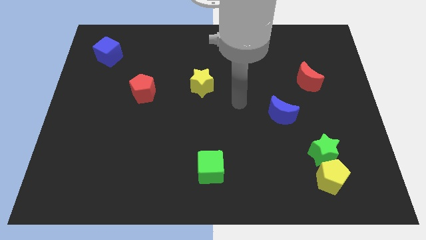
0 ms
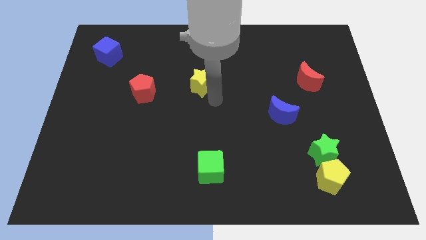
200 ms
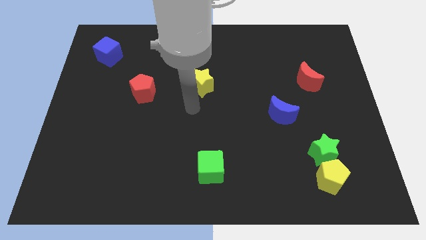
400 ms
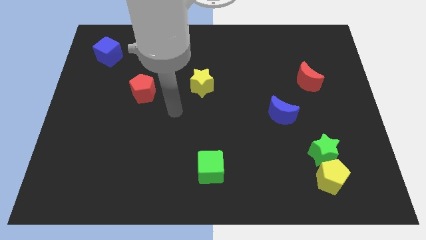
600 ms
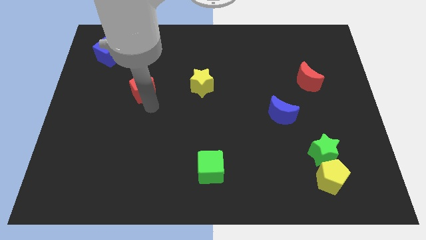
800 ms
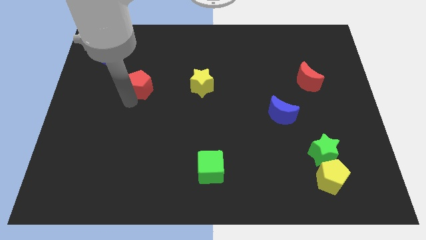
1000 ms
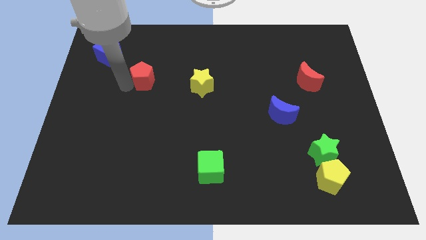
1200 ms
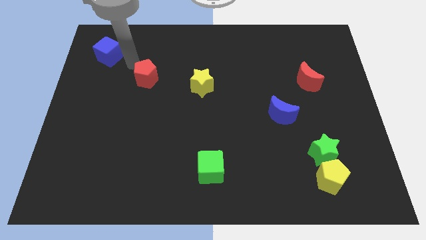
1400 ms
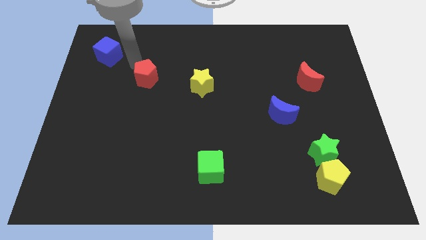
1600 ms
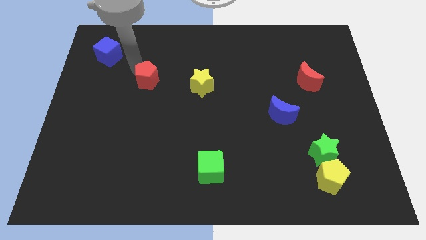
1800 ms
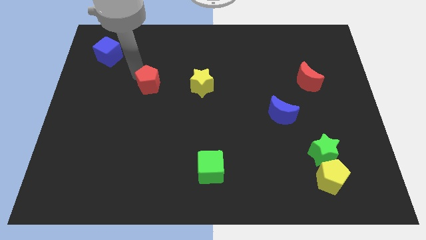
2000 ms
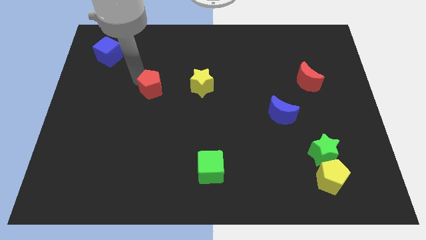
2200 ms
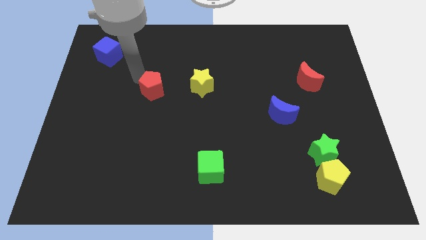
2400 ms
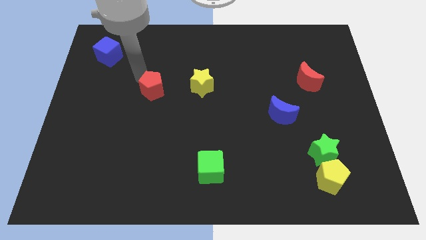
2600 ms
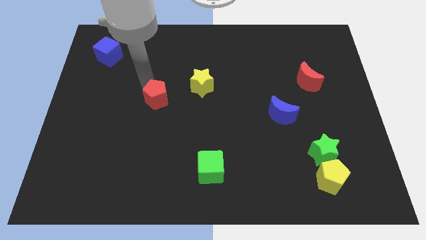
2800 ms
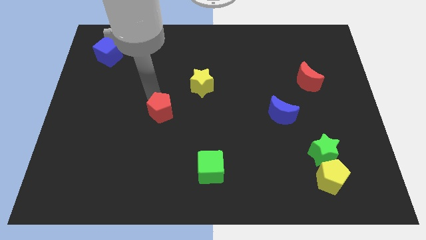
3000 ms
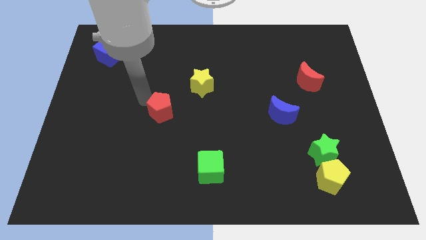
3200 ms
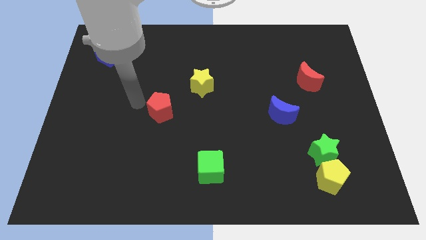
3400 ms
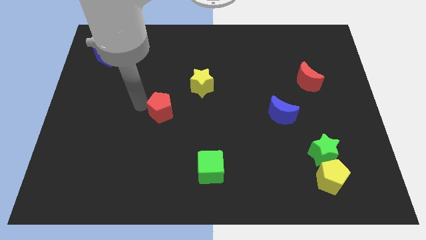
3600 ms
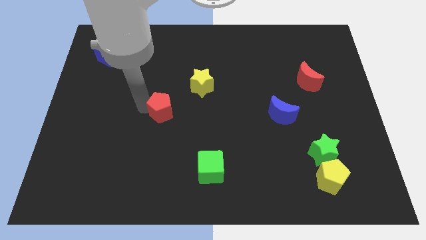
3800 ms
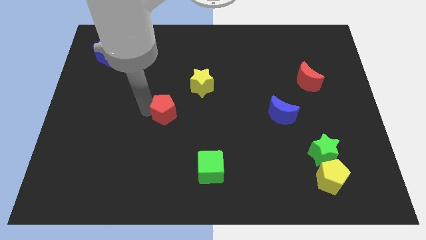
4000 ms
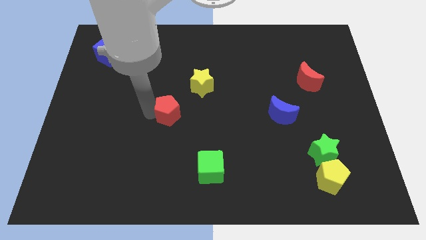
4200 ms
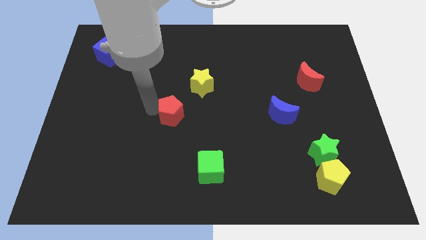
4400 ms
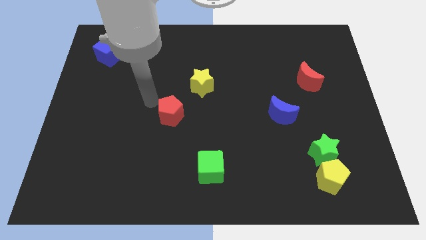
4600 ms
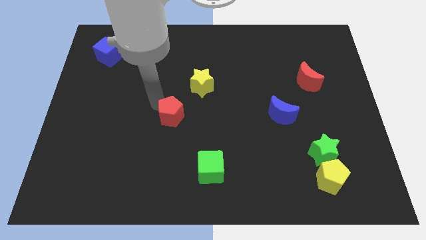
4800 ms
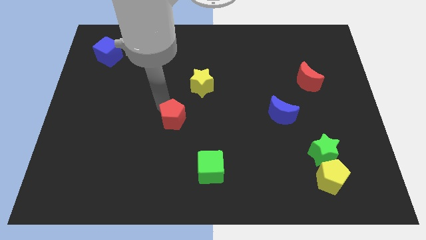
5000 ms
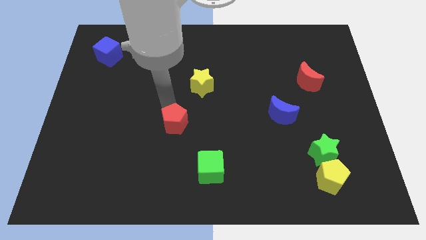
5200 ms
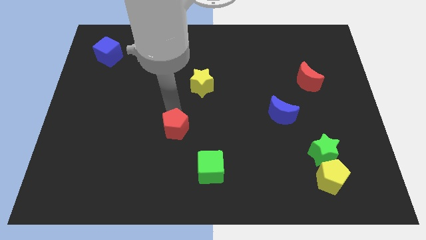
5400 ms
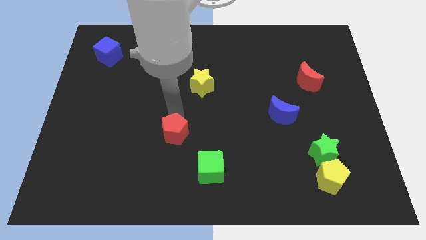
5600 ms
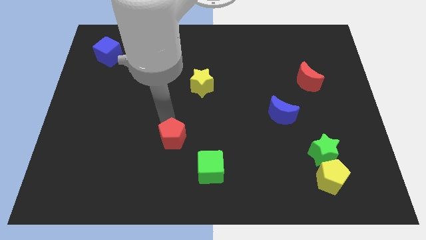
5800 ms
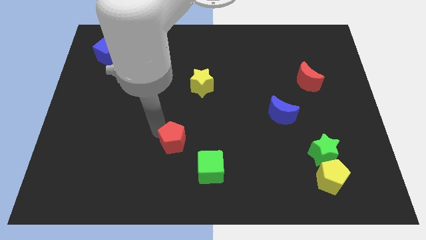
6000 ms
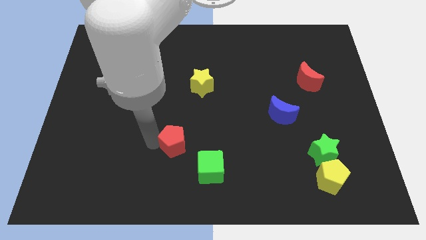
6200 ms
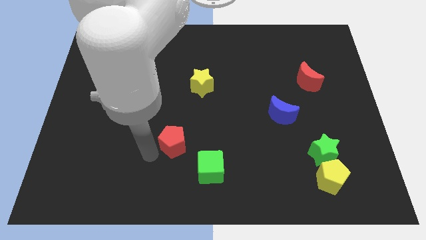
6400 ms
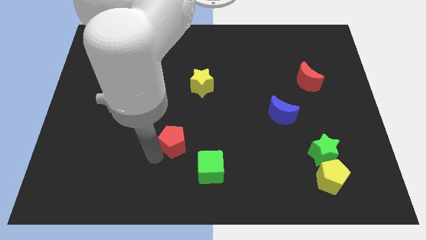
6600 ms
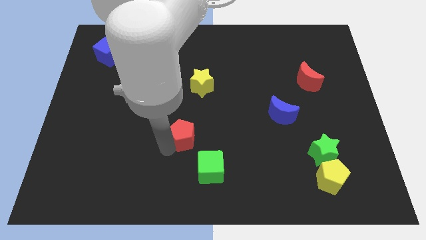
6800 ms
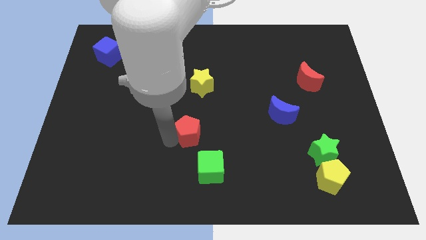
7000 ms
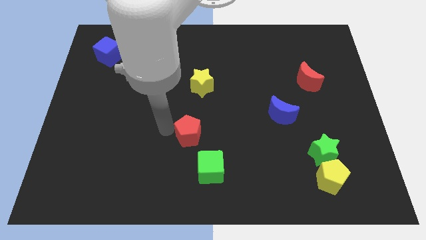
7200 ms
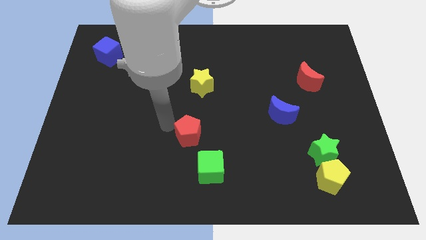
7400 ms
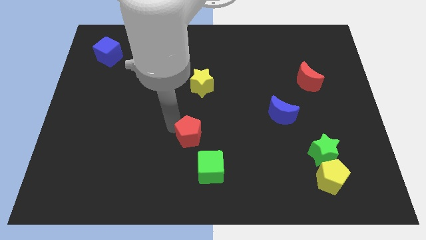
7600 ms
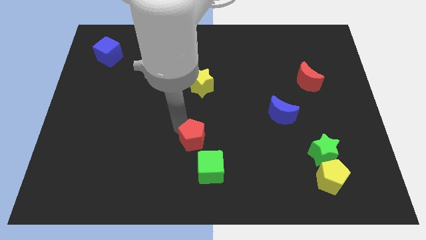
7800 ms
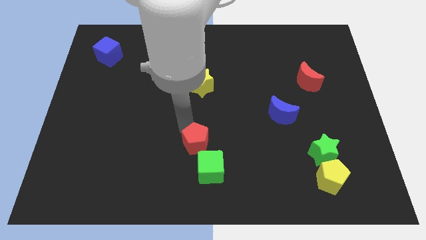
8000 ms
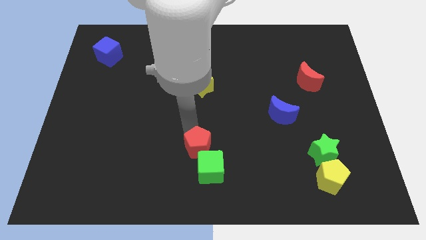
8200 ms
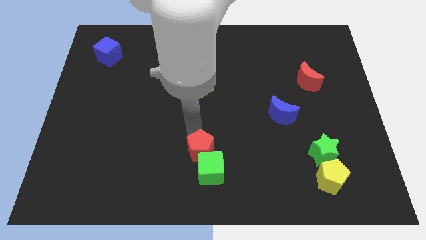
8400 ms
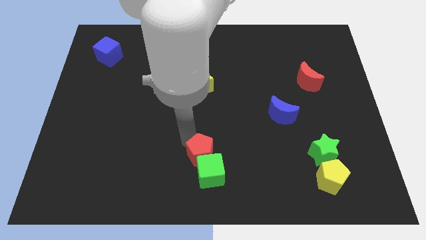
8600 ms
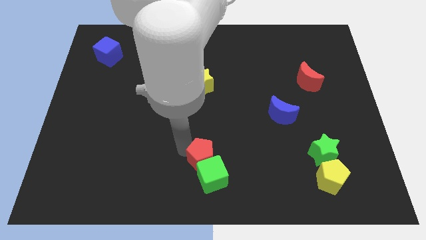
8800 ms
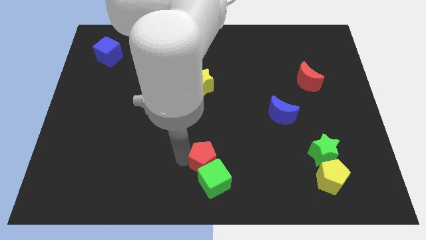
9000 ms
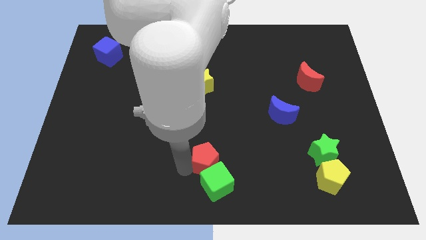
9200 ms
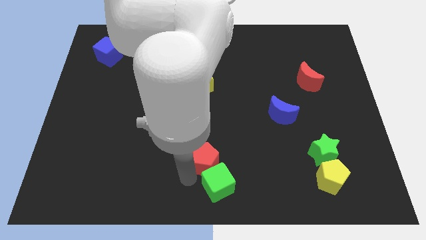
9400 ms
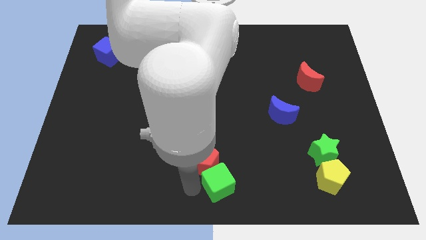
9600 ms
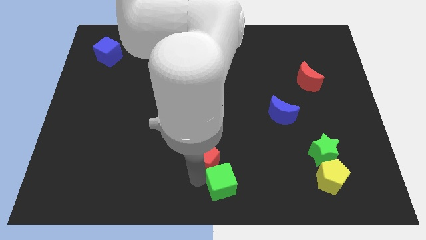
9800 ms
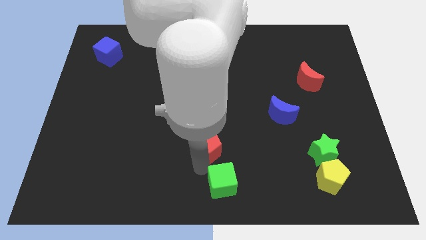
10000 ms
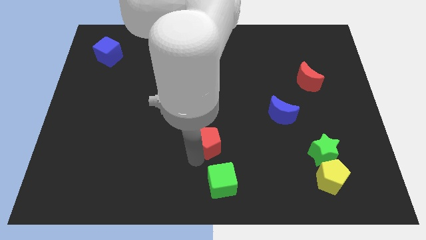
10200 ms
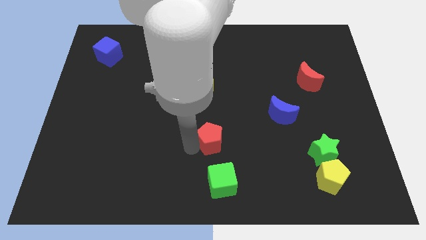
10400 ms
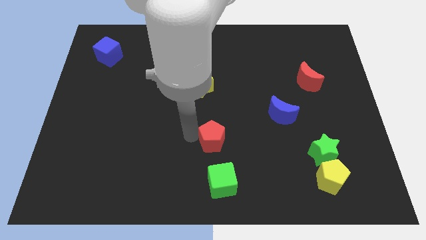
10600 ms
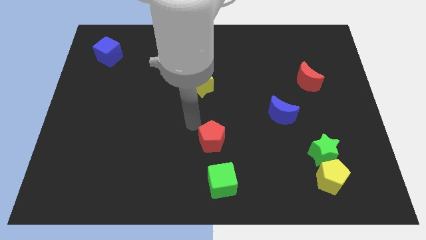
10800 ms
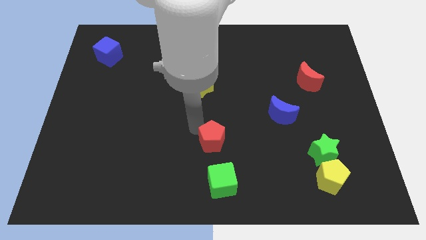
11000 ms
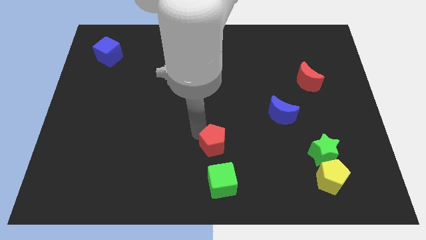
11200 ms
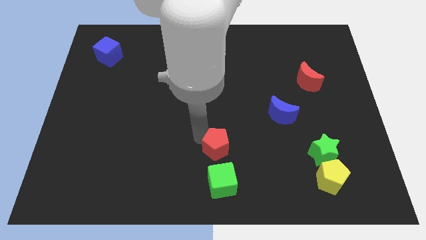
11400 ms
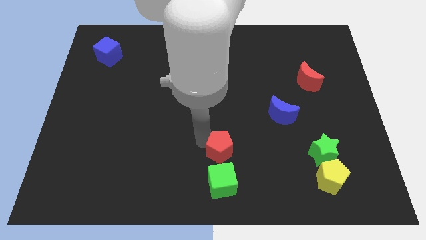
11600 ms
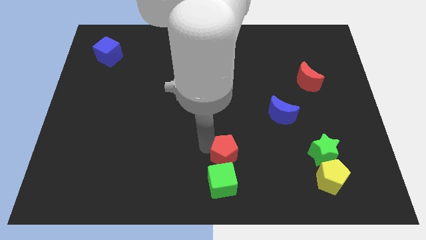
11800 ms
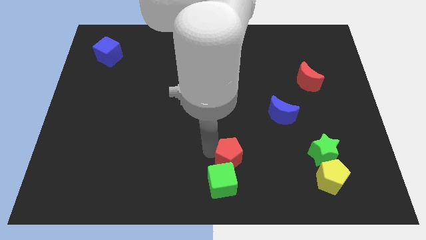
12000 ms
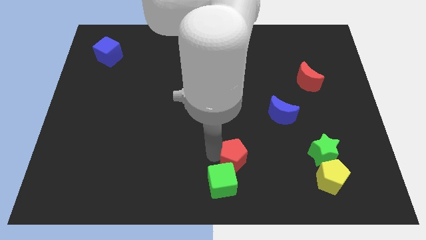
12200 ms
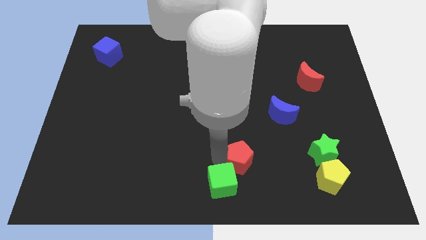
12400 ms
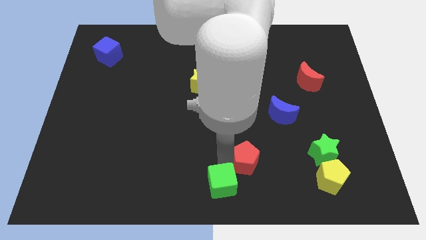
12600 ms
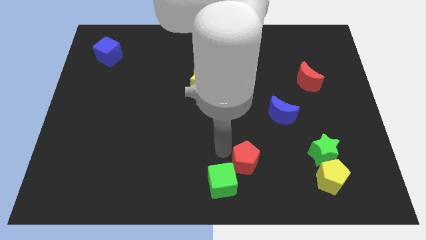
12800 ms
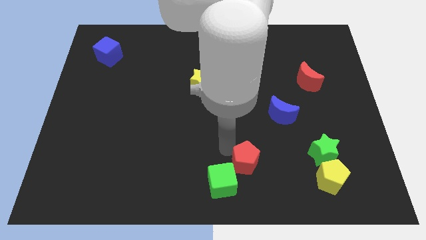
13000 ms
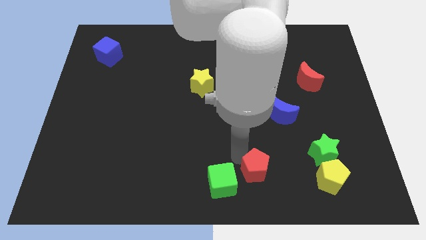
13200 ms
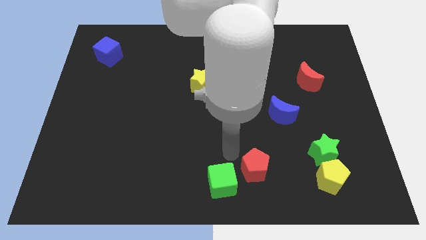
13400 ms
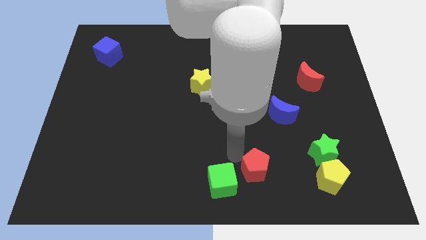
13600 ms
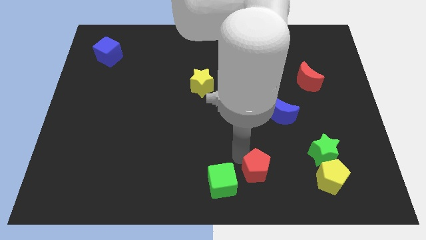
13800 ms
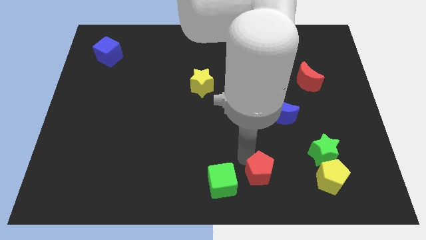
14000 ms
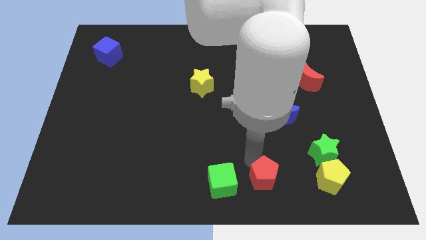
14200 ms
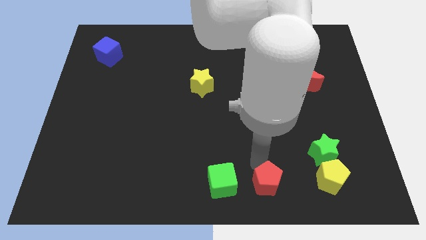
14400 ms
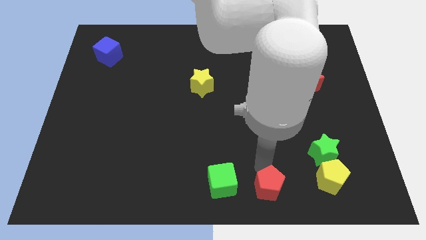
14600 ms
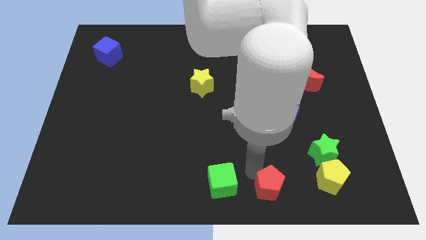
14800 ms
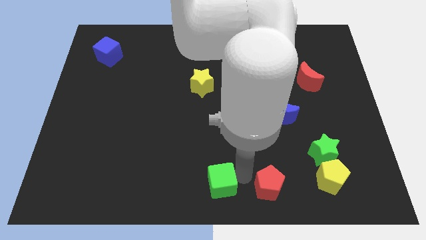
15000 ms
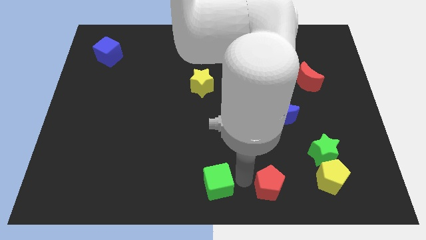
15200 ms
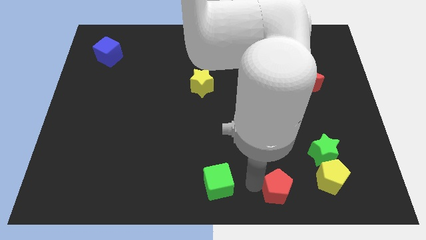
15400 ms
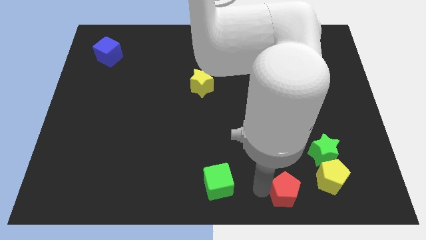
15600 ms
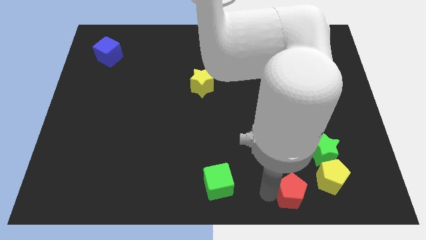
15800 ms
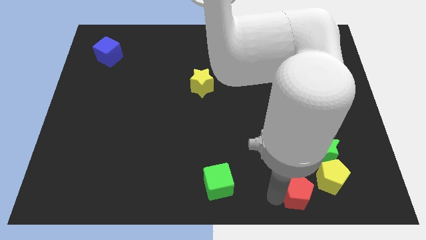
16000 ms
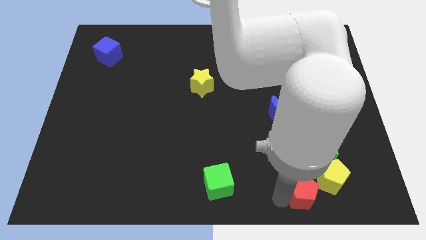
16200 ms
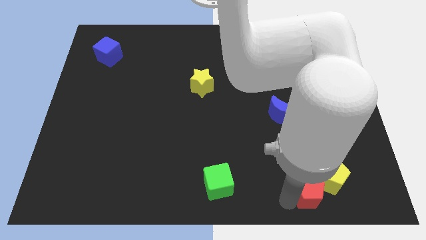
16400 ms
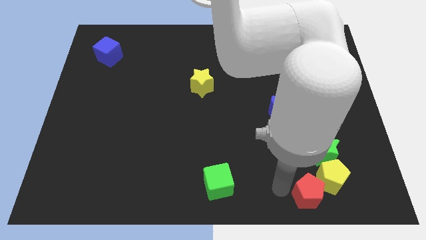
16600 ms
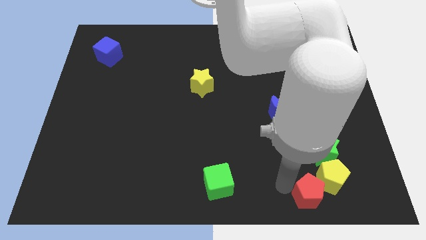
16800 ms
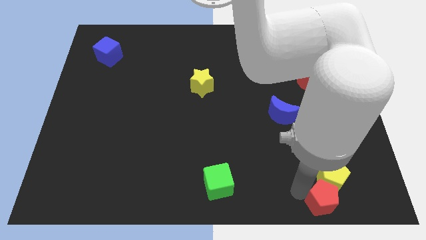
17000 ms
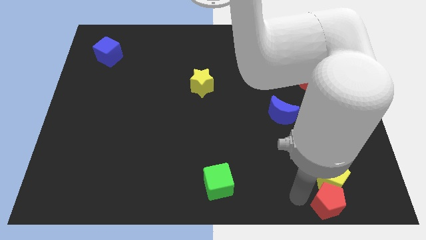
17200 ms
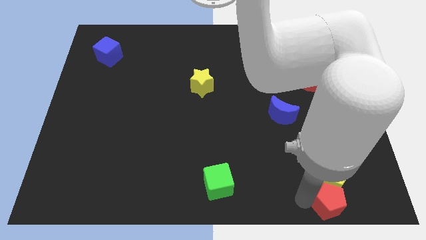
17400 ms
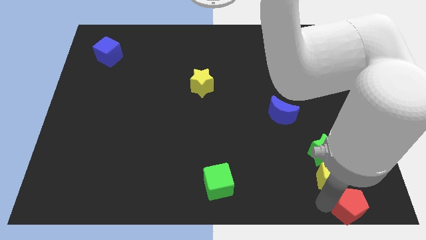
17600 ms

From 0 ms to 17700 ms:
put the red pentagon to the bottom right of the board
